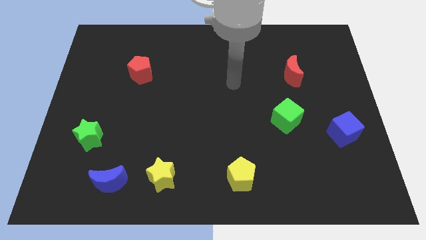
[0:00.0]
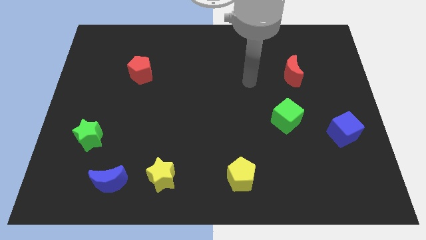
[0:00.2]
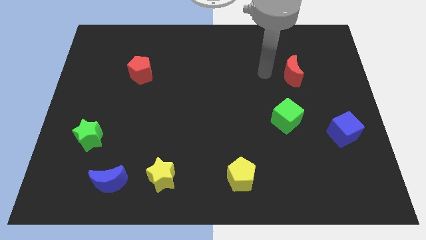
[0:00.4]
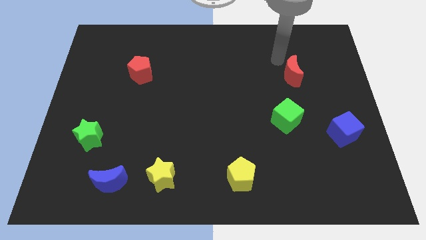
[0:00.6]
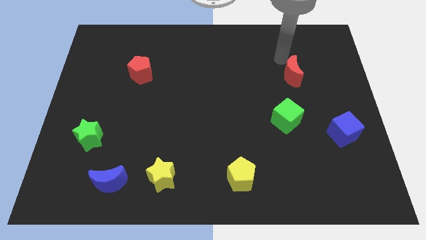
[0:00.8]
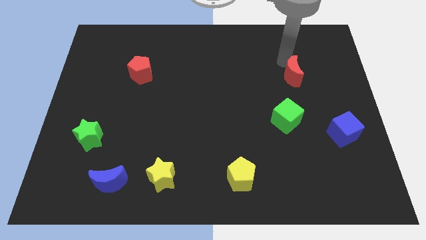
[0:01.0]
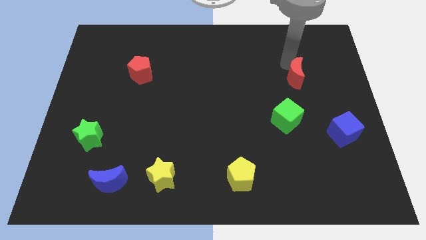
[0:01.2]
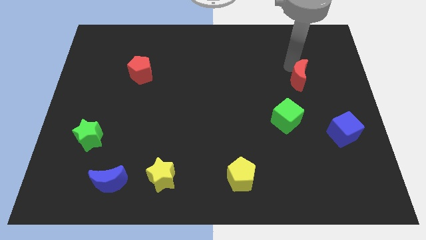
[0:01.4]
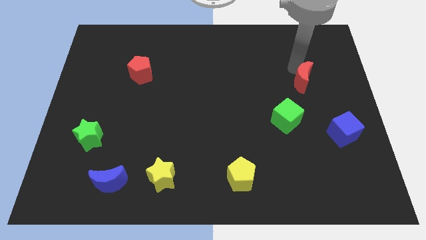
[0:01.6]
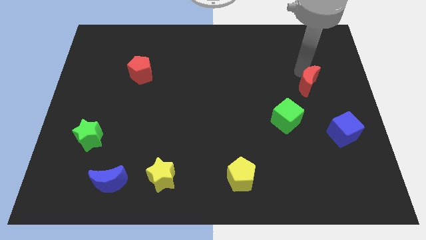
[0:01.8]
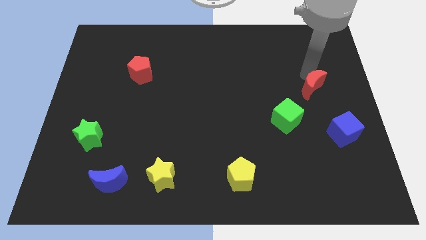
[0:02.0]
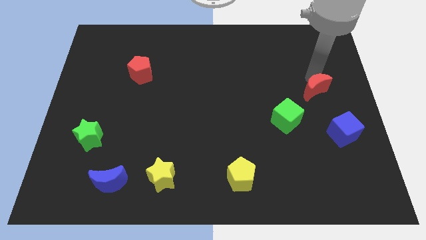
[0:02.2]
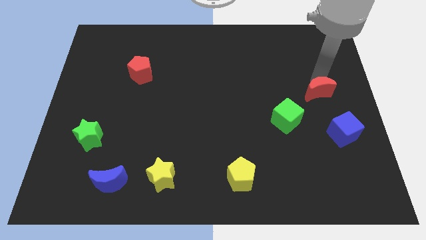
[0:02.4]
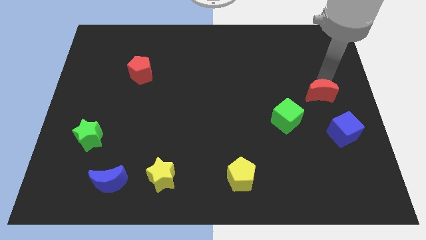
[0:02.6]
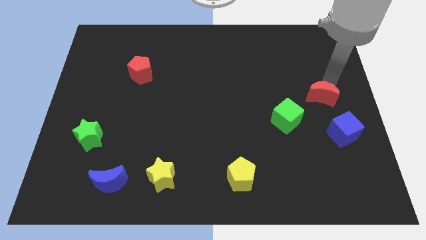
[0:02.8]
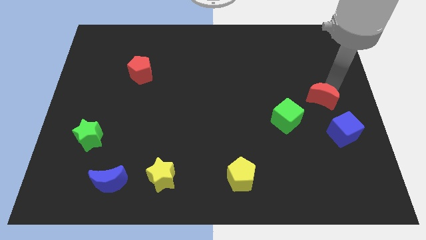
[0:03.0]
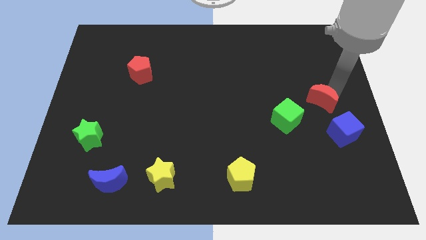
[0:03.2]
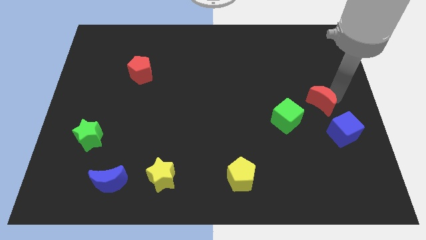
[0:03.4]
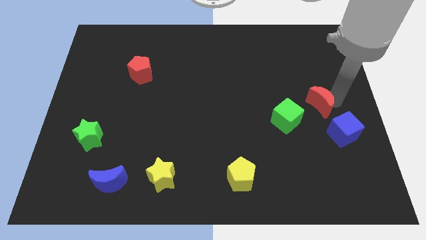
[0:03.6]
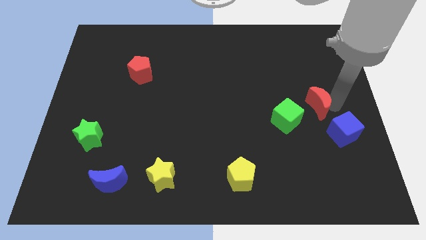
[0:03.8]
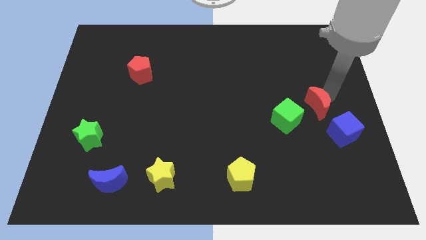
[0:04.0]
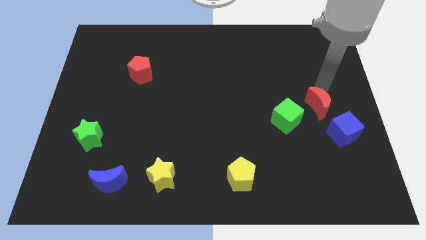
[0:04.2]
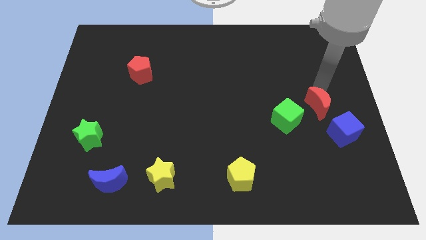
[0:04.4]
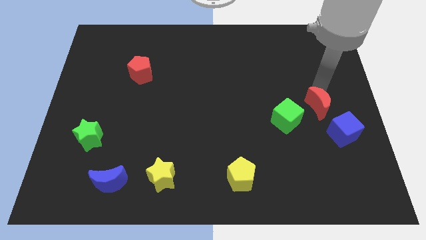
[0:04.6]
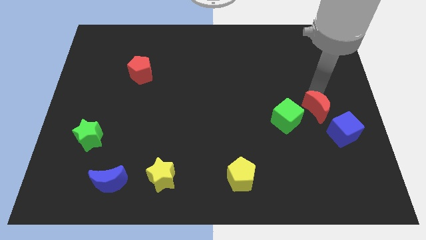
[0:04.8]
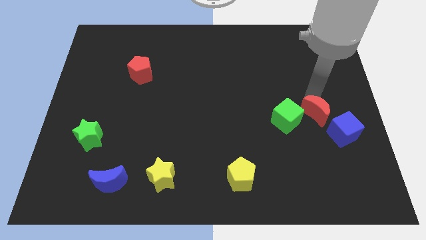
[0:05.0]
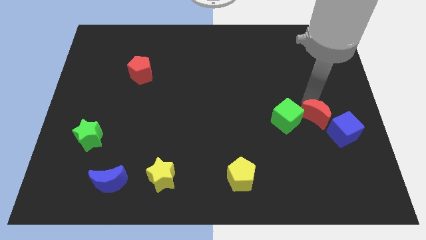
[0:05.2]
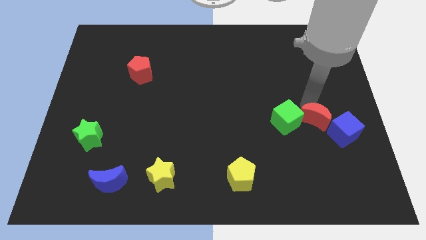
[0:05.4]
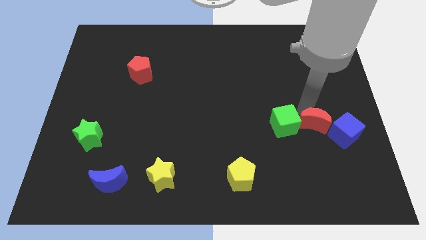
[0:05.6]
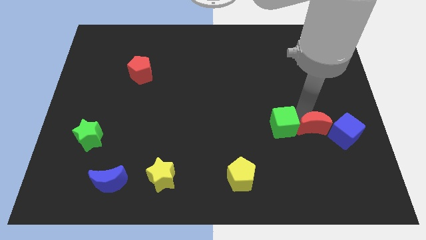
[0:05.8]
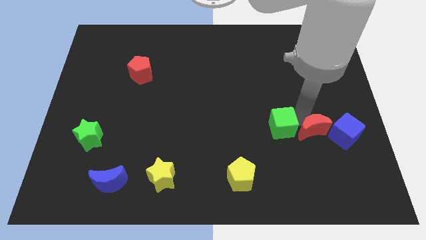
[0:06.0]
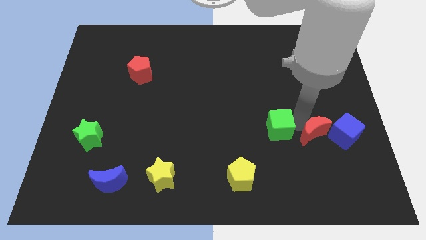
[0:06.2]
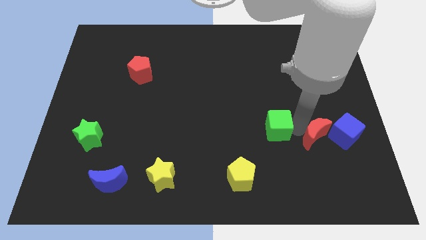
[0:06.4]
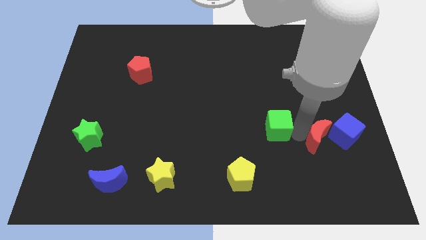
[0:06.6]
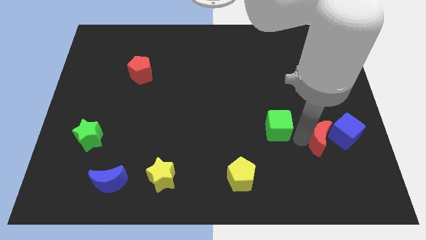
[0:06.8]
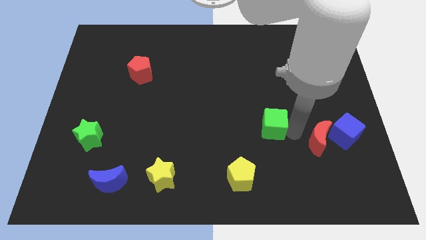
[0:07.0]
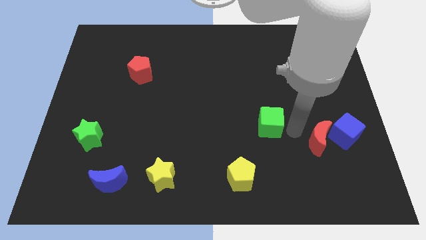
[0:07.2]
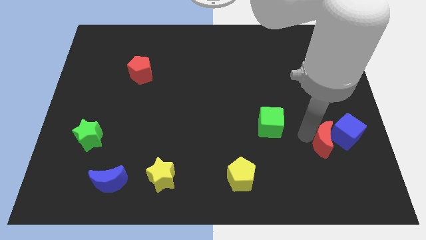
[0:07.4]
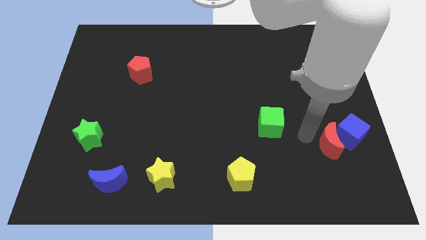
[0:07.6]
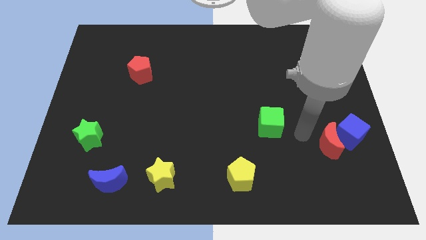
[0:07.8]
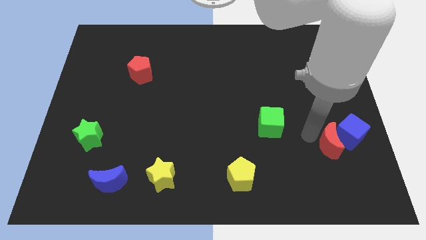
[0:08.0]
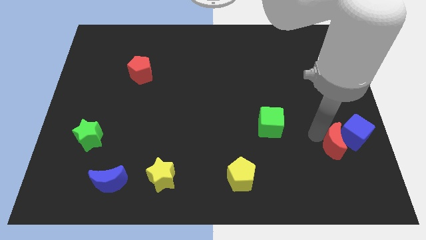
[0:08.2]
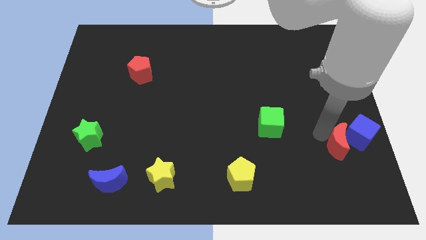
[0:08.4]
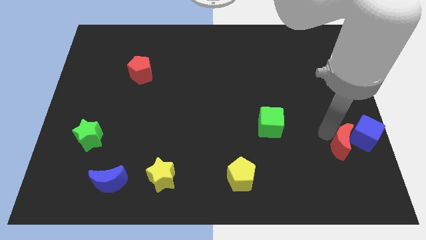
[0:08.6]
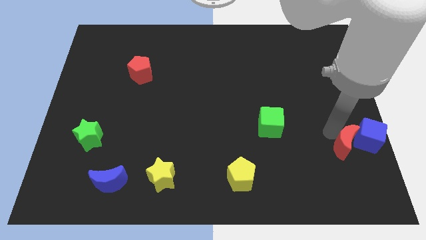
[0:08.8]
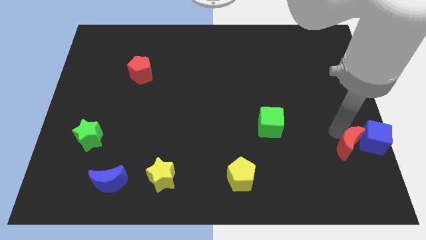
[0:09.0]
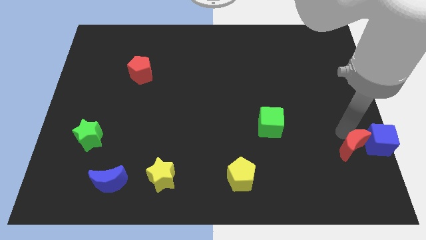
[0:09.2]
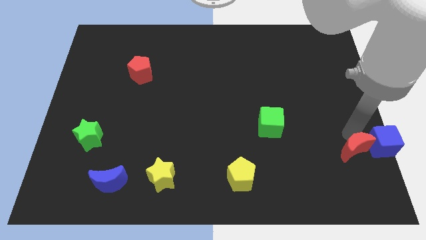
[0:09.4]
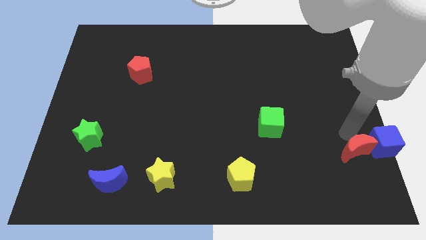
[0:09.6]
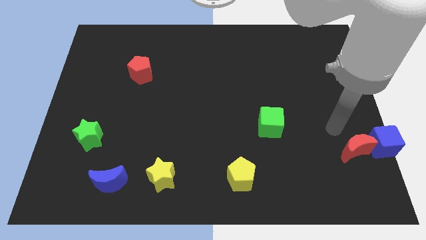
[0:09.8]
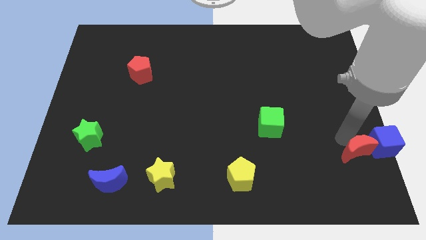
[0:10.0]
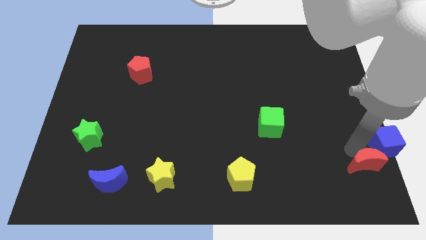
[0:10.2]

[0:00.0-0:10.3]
slide the red moon to the bottom right of the board

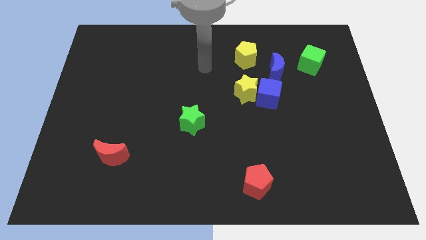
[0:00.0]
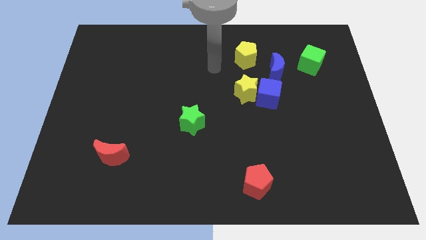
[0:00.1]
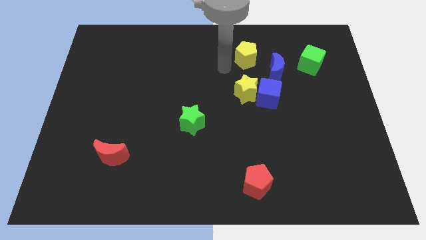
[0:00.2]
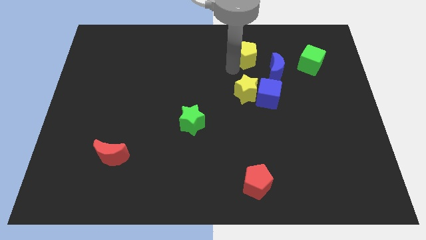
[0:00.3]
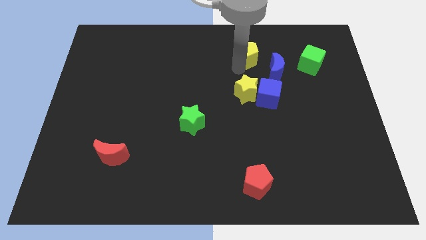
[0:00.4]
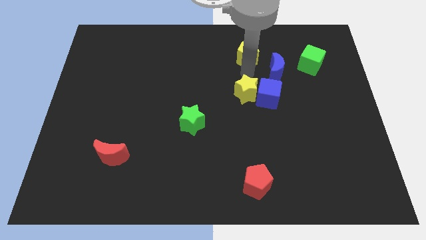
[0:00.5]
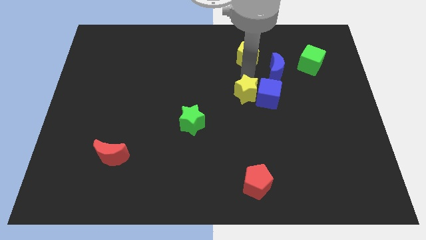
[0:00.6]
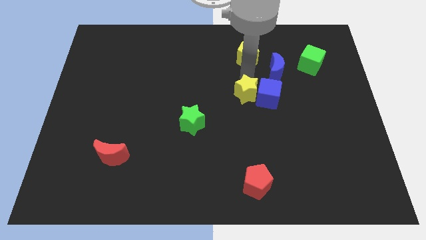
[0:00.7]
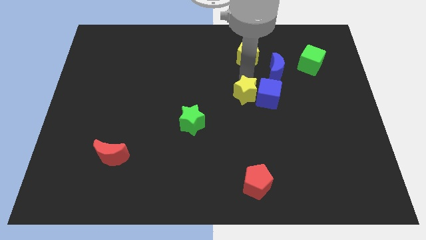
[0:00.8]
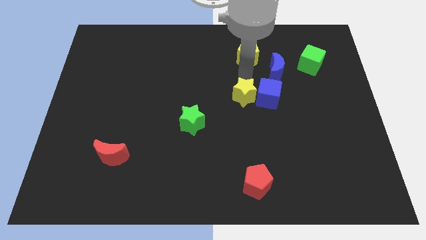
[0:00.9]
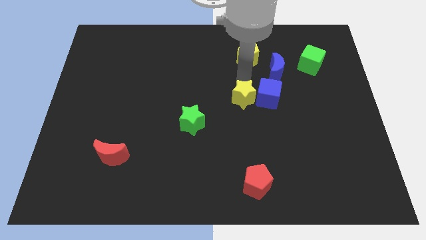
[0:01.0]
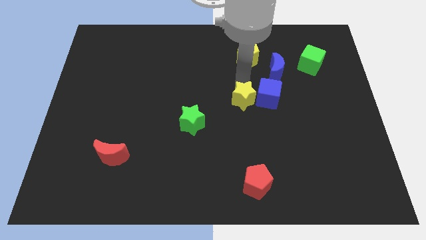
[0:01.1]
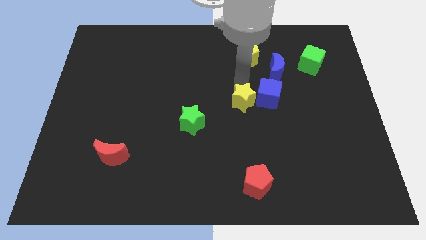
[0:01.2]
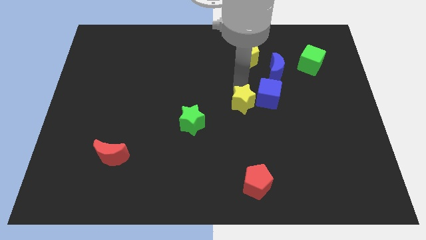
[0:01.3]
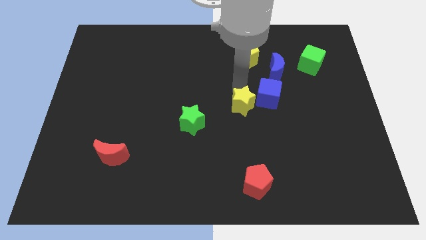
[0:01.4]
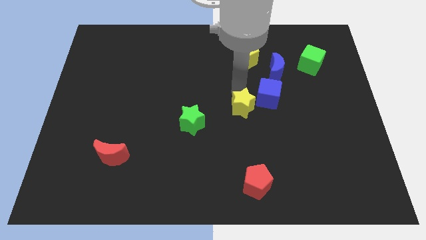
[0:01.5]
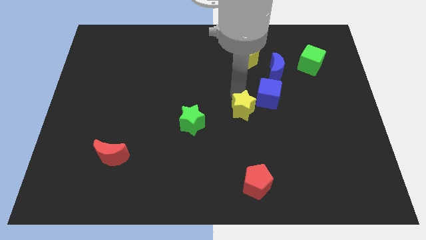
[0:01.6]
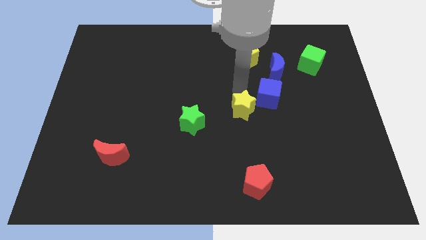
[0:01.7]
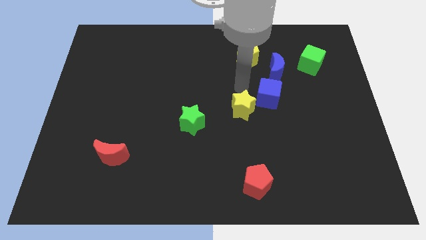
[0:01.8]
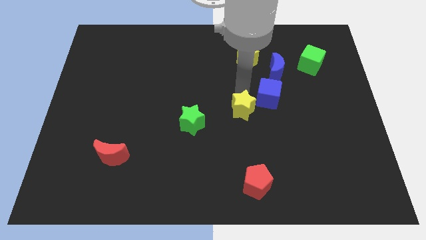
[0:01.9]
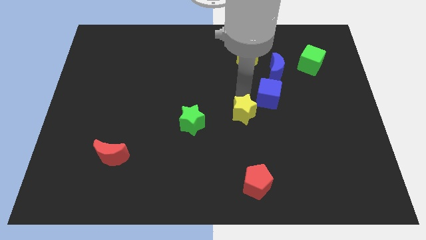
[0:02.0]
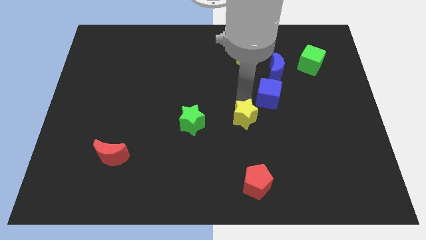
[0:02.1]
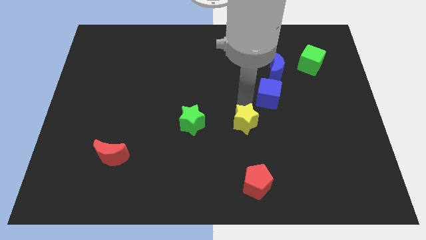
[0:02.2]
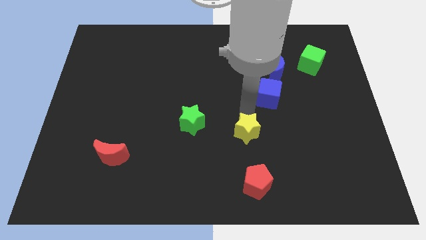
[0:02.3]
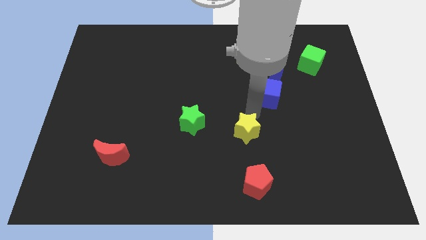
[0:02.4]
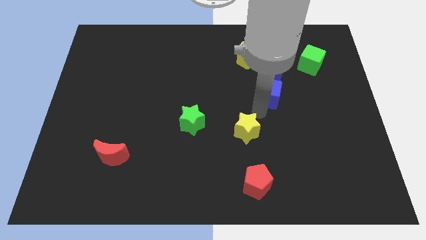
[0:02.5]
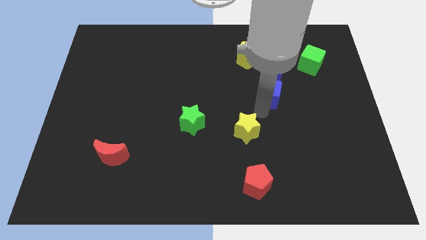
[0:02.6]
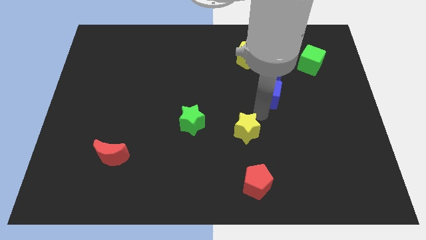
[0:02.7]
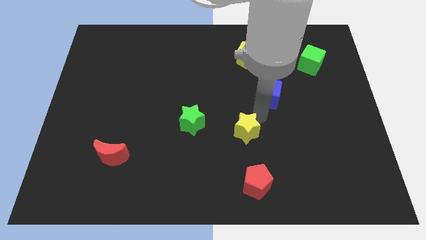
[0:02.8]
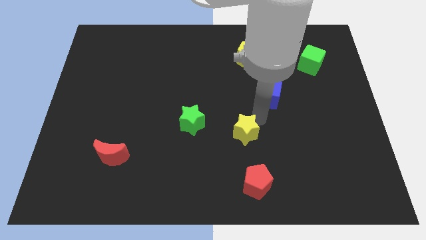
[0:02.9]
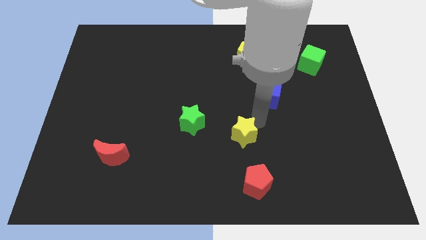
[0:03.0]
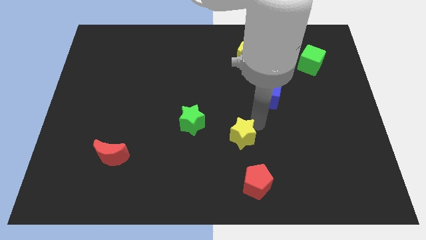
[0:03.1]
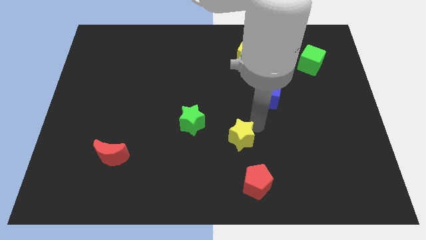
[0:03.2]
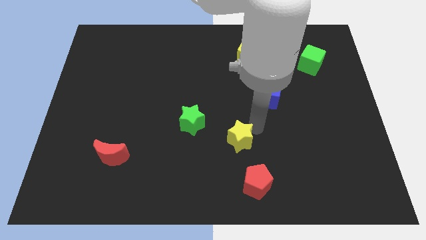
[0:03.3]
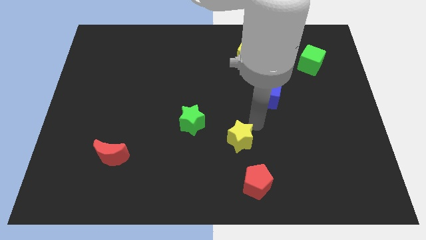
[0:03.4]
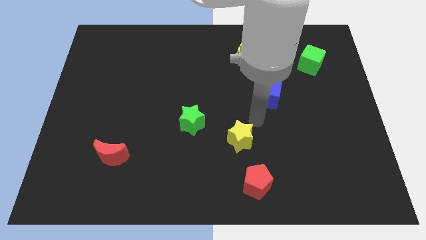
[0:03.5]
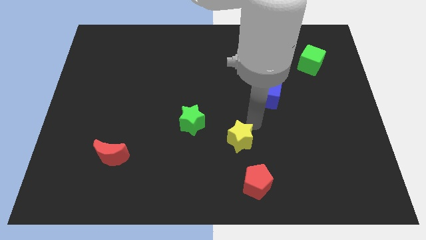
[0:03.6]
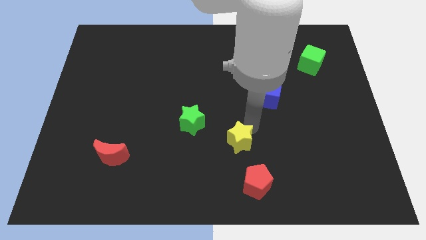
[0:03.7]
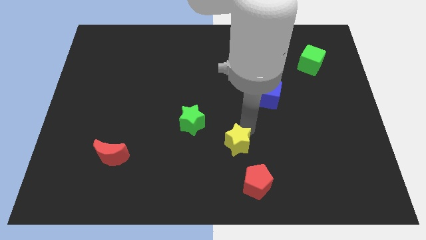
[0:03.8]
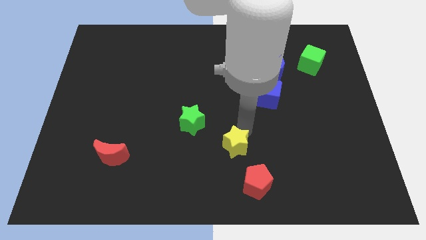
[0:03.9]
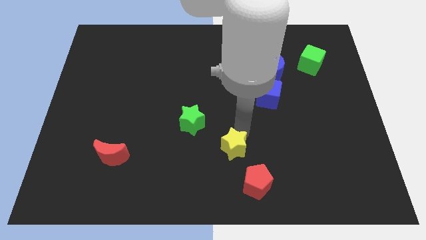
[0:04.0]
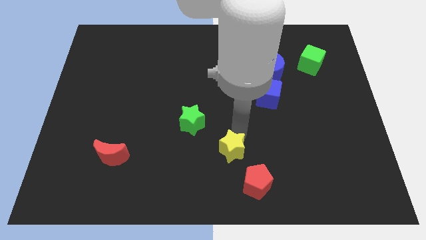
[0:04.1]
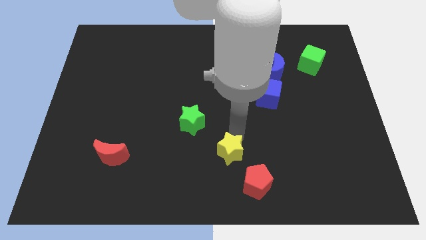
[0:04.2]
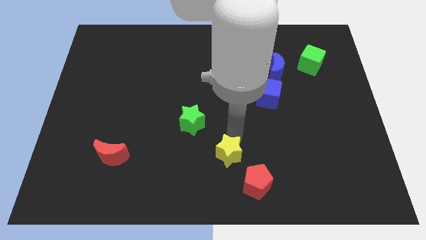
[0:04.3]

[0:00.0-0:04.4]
push the yellow star to the bottom
